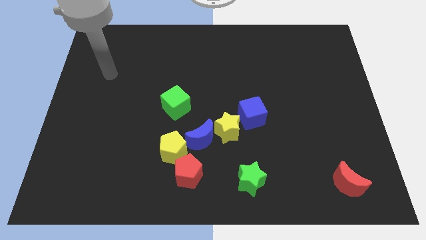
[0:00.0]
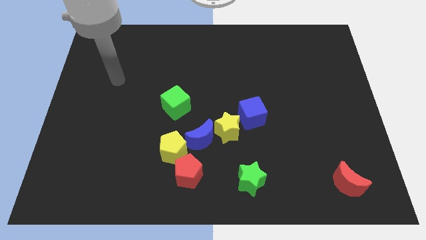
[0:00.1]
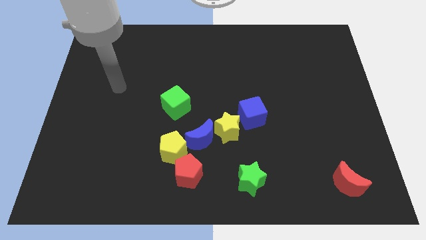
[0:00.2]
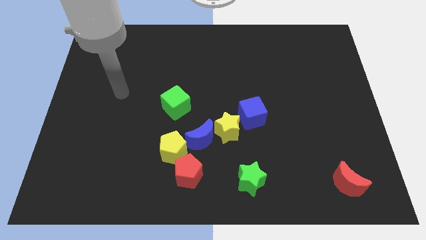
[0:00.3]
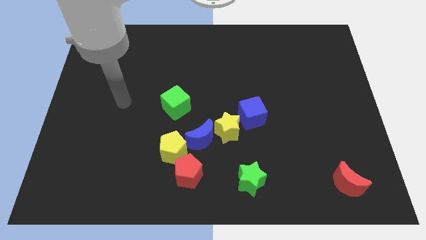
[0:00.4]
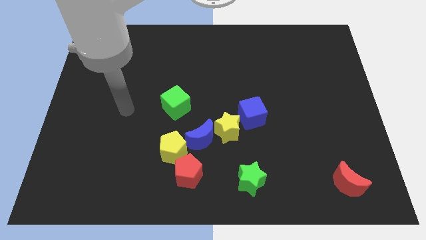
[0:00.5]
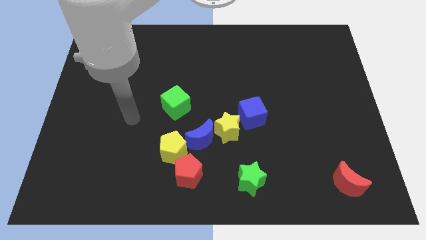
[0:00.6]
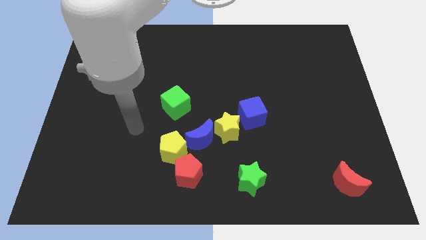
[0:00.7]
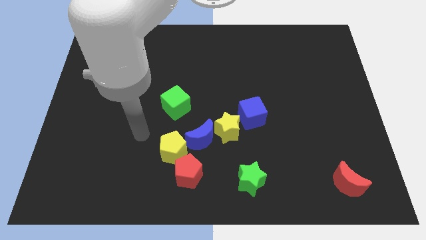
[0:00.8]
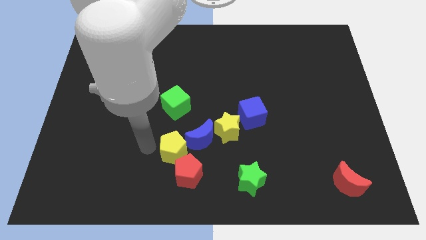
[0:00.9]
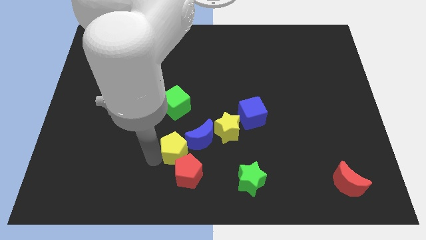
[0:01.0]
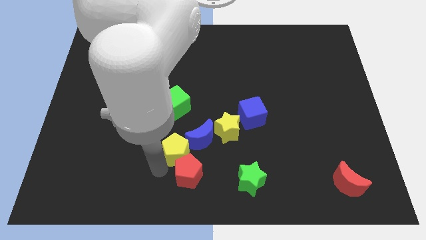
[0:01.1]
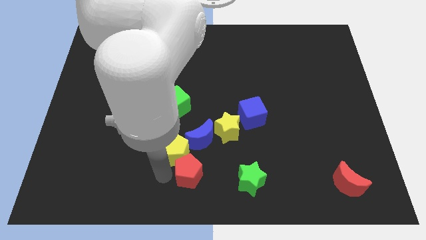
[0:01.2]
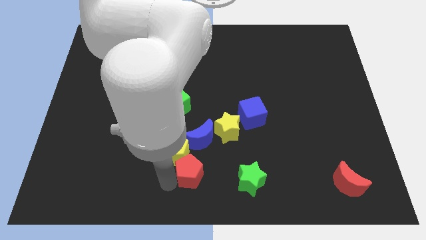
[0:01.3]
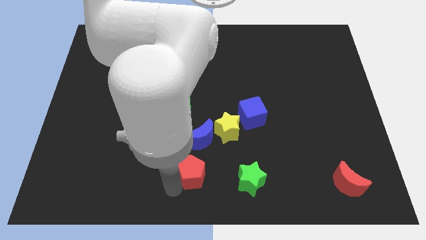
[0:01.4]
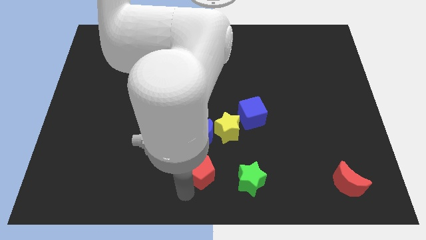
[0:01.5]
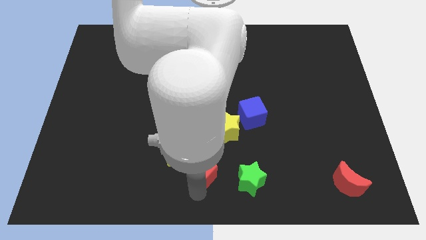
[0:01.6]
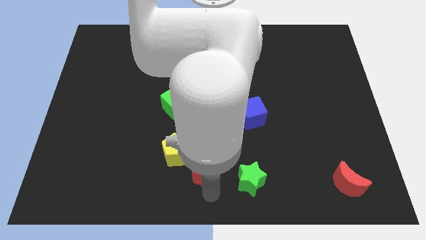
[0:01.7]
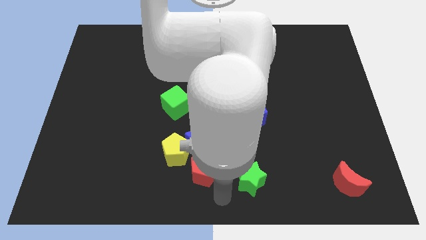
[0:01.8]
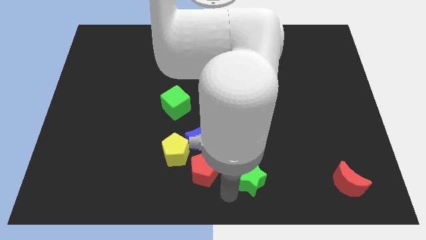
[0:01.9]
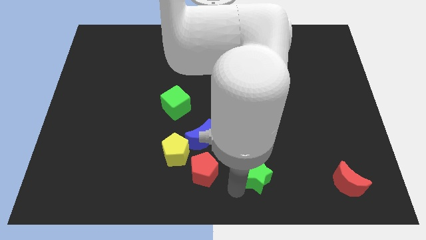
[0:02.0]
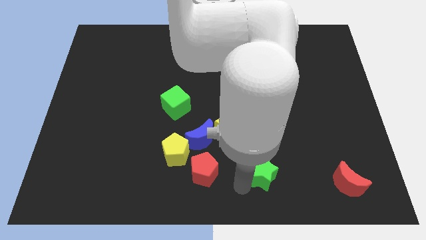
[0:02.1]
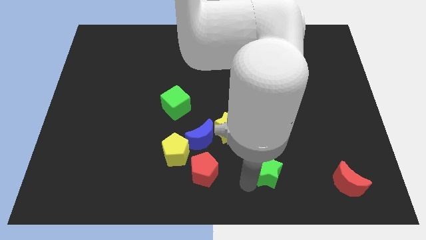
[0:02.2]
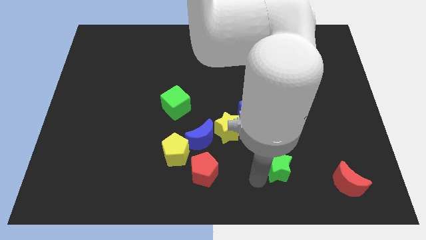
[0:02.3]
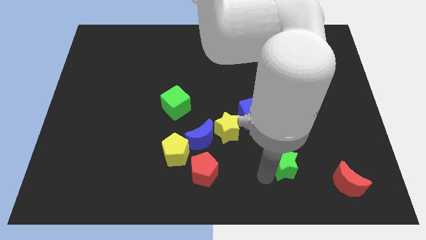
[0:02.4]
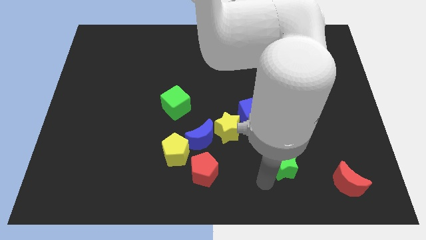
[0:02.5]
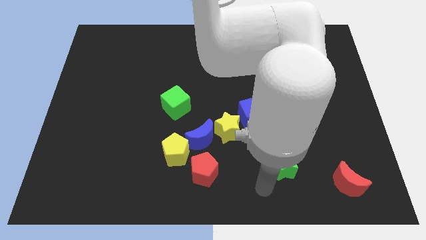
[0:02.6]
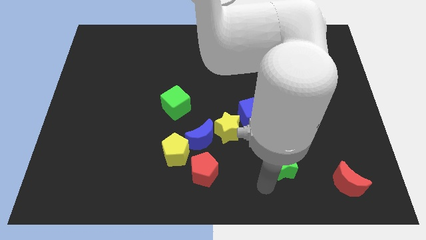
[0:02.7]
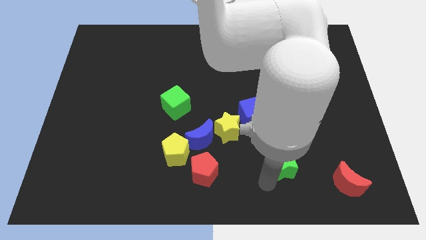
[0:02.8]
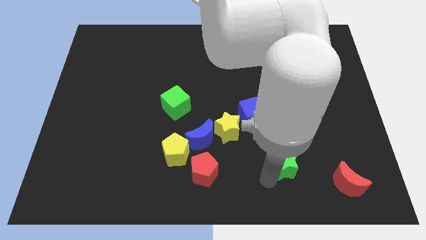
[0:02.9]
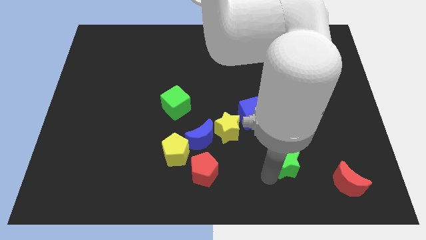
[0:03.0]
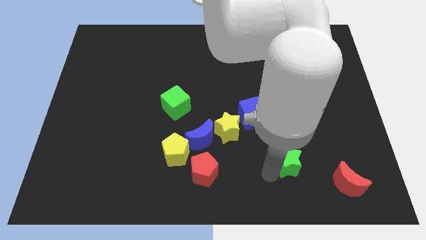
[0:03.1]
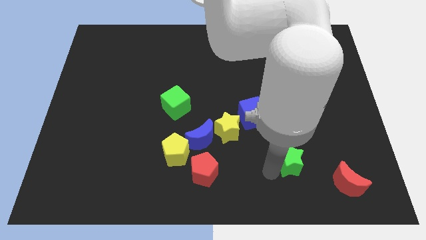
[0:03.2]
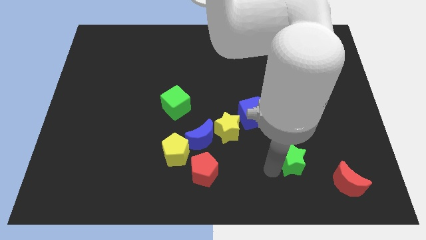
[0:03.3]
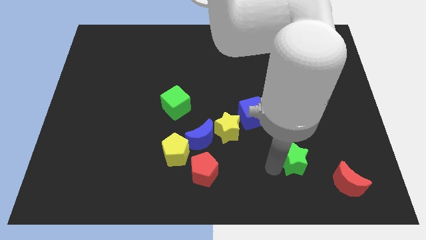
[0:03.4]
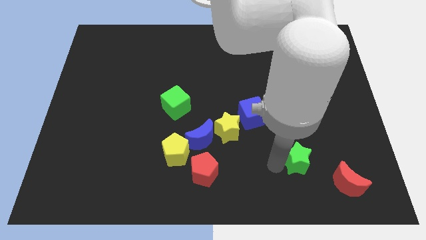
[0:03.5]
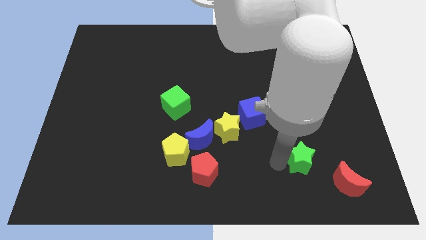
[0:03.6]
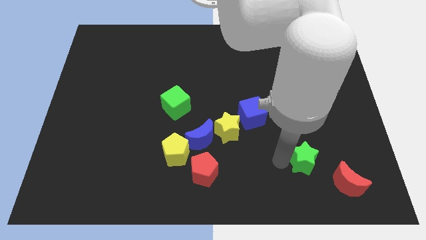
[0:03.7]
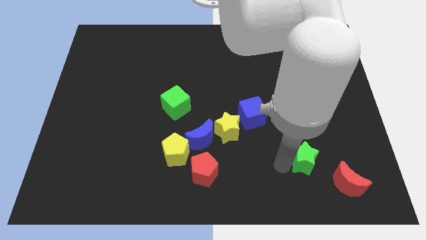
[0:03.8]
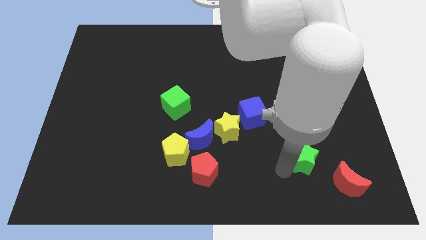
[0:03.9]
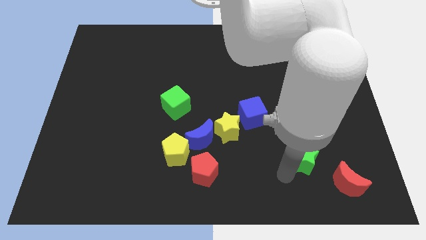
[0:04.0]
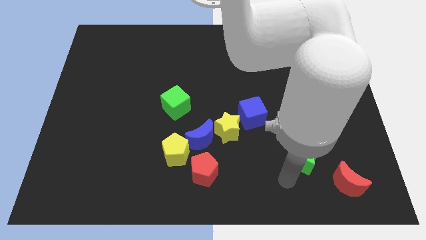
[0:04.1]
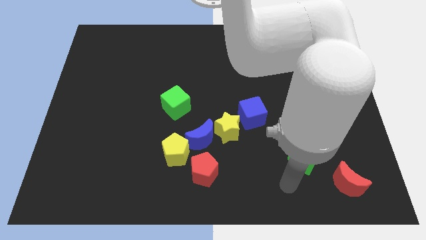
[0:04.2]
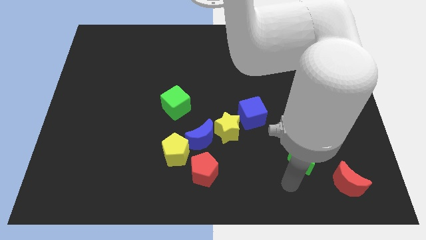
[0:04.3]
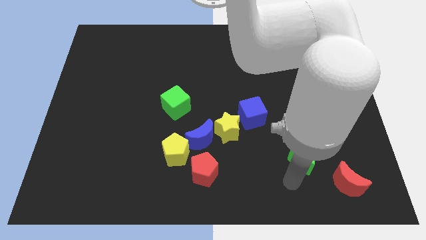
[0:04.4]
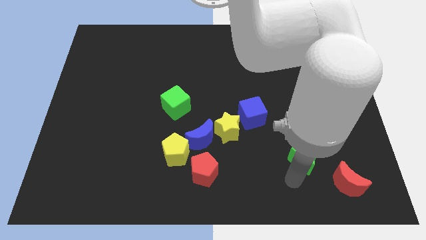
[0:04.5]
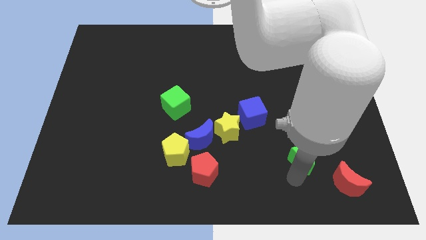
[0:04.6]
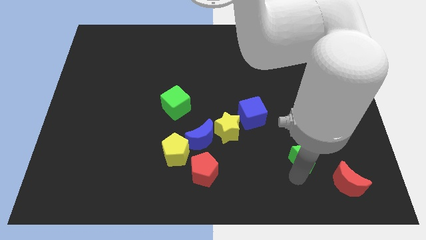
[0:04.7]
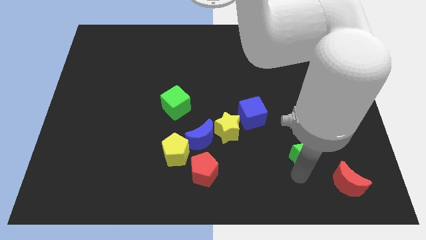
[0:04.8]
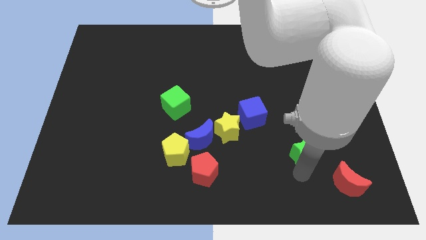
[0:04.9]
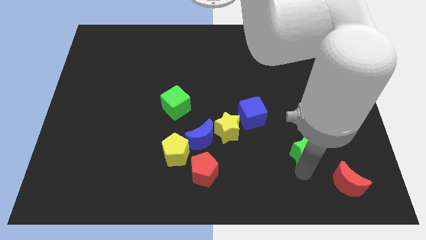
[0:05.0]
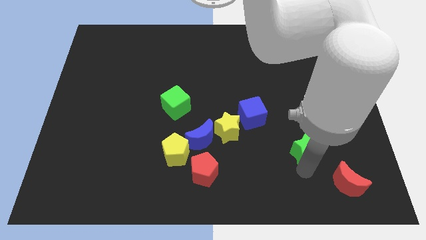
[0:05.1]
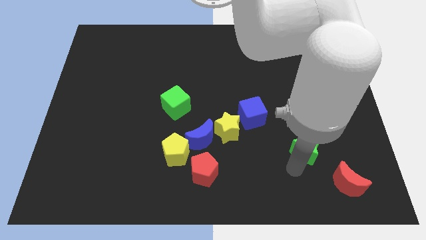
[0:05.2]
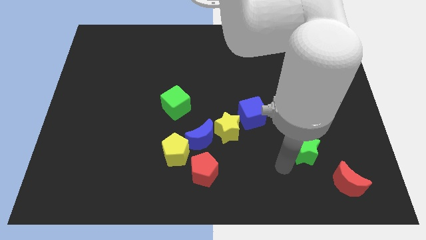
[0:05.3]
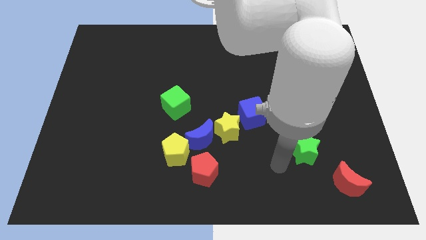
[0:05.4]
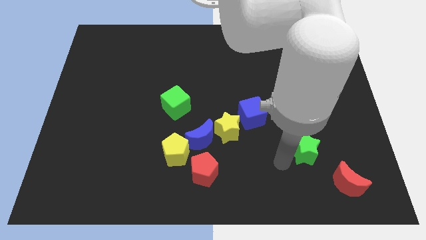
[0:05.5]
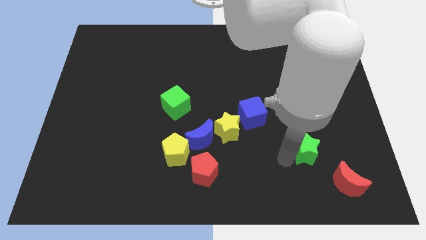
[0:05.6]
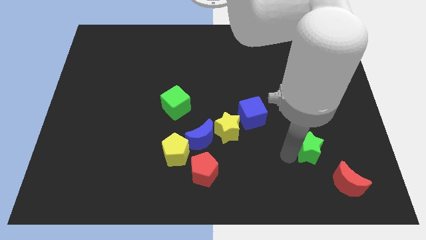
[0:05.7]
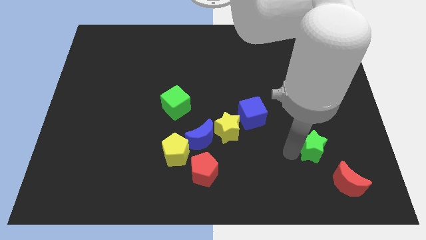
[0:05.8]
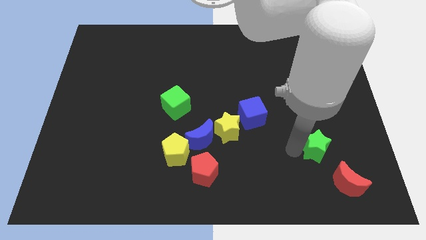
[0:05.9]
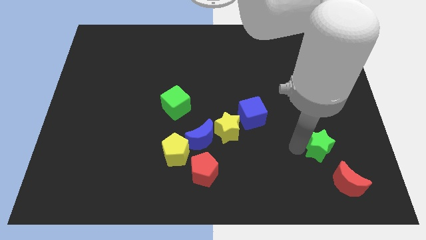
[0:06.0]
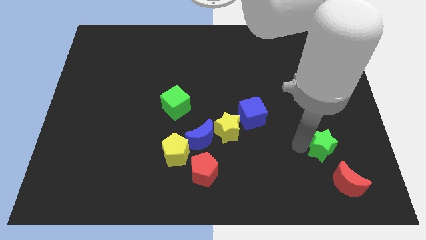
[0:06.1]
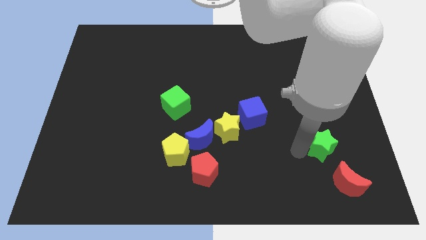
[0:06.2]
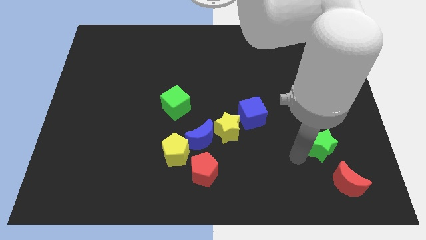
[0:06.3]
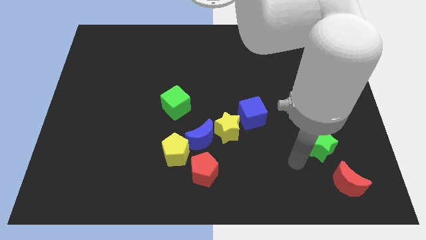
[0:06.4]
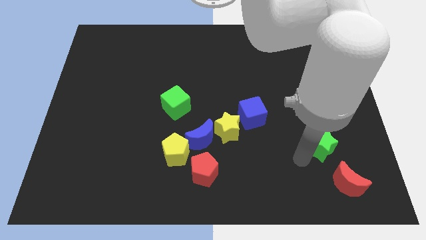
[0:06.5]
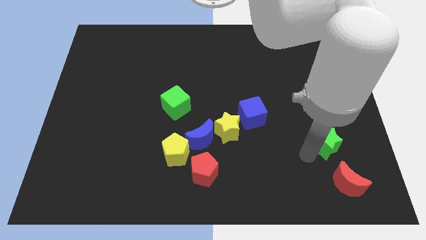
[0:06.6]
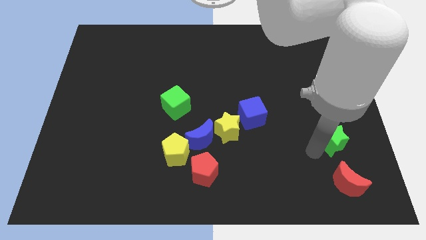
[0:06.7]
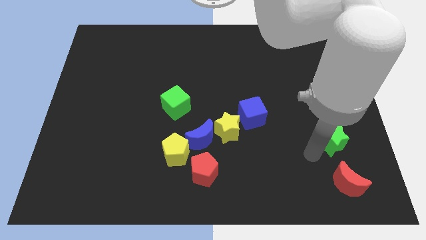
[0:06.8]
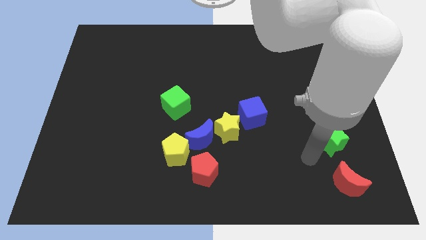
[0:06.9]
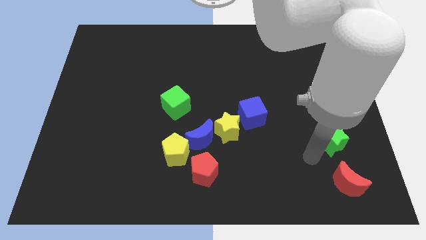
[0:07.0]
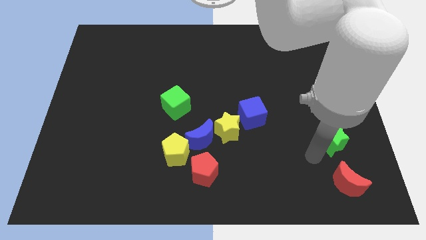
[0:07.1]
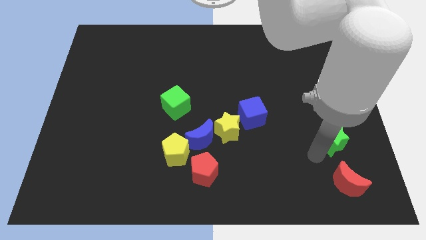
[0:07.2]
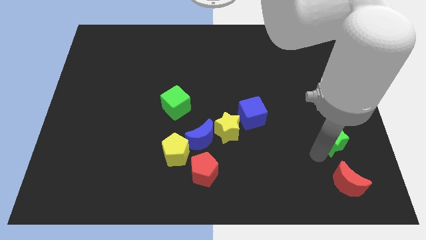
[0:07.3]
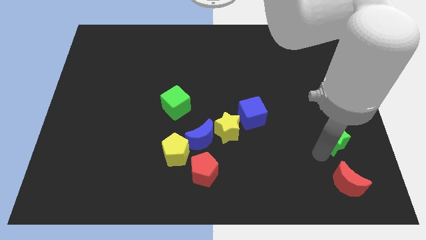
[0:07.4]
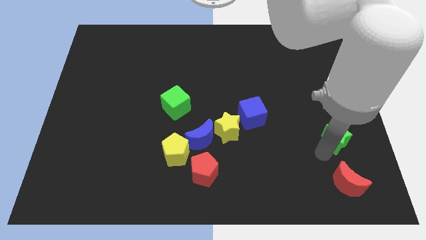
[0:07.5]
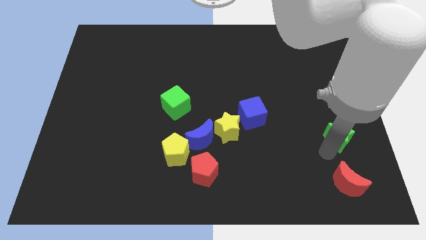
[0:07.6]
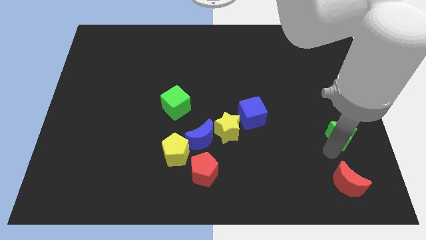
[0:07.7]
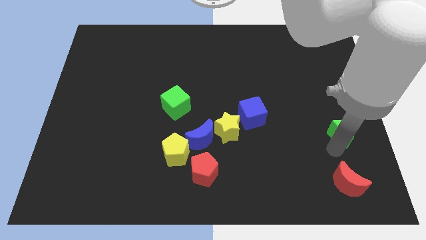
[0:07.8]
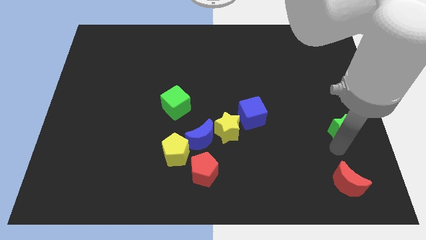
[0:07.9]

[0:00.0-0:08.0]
push the green star to the right side of the board
